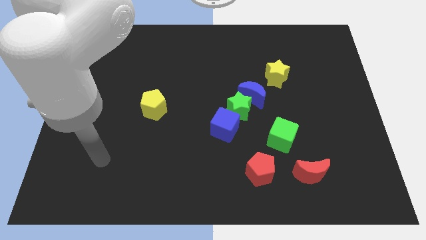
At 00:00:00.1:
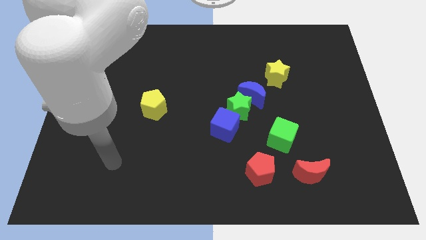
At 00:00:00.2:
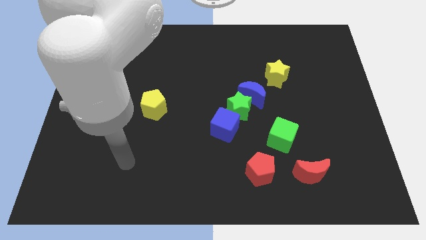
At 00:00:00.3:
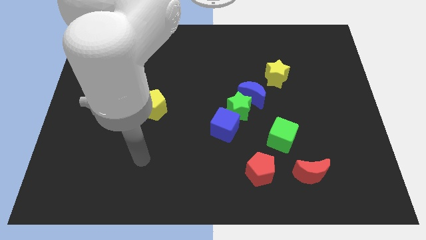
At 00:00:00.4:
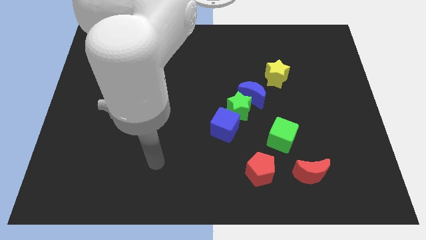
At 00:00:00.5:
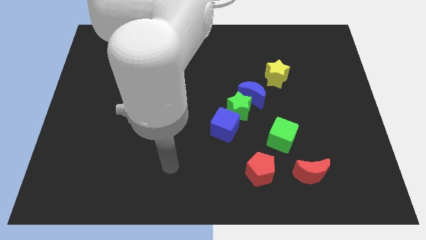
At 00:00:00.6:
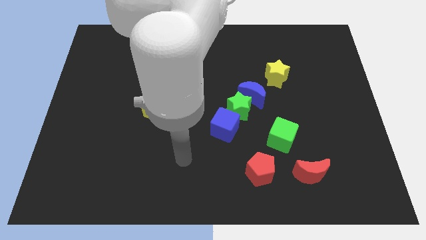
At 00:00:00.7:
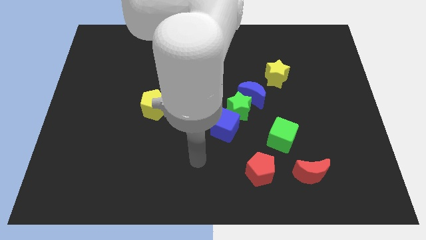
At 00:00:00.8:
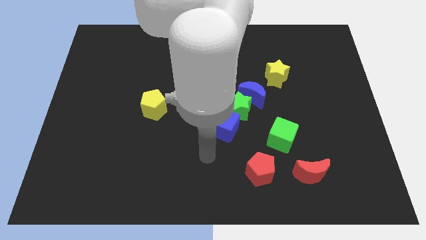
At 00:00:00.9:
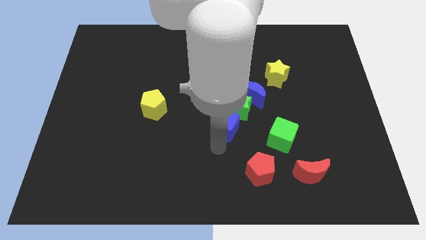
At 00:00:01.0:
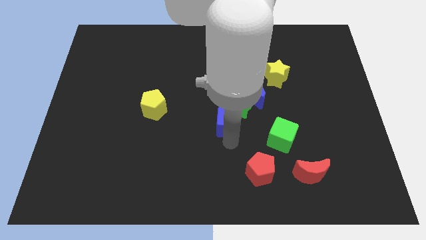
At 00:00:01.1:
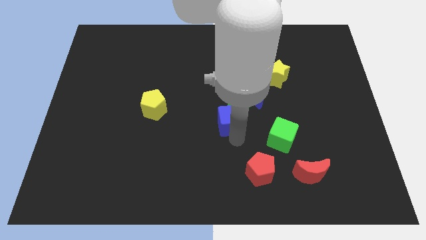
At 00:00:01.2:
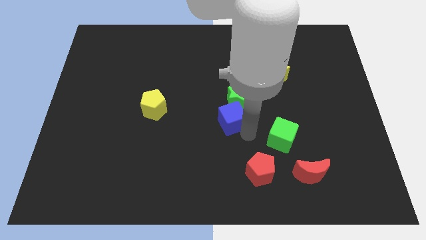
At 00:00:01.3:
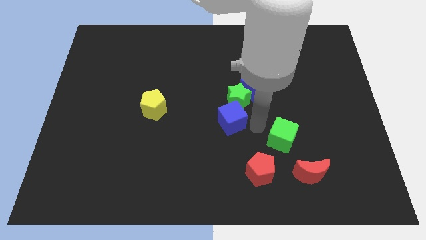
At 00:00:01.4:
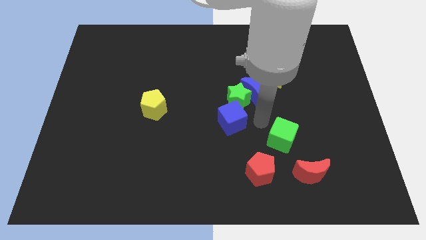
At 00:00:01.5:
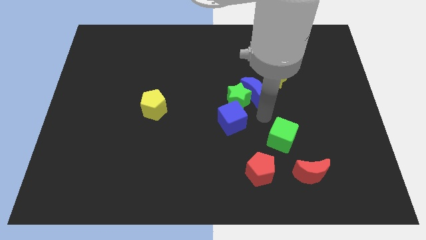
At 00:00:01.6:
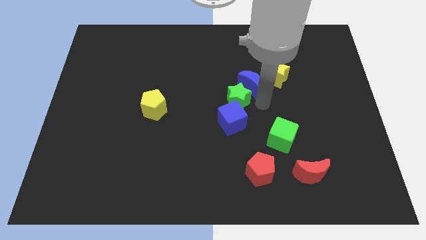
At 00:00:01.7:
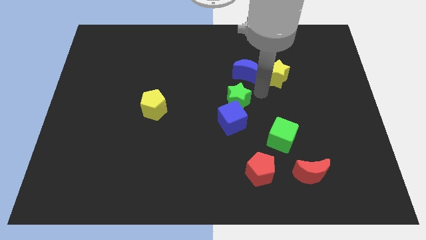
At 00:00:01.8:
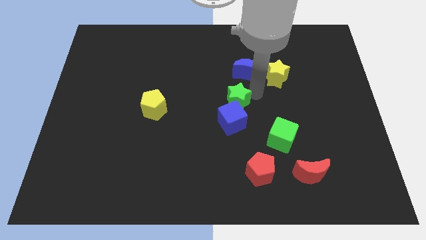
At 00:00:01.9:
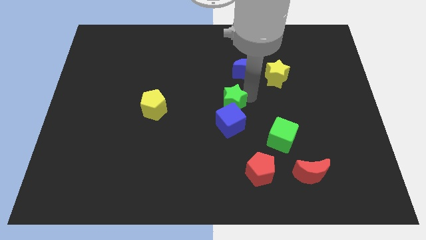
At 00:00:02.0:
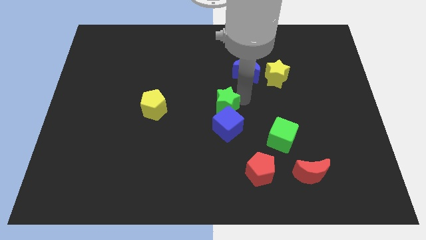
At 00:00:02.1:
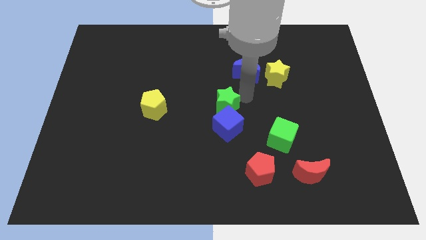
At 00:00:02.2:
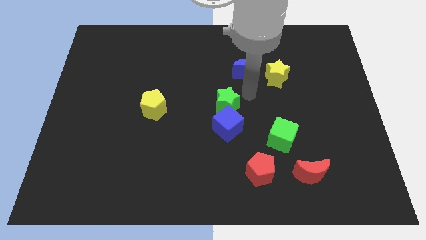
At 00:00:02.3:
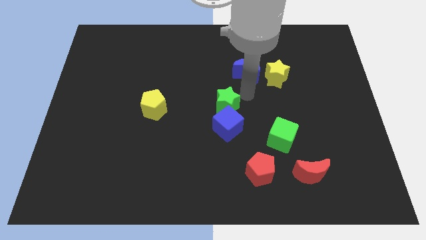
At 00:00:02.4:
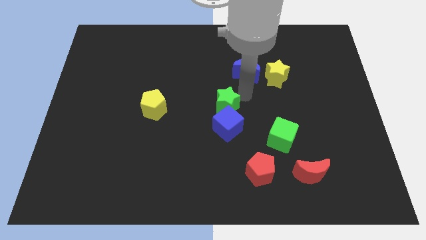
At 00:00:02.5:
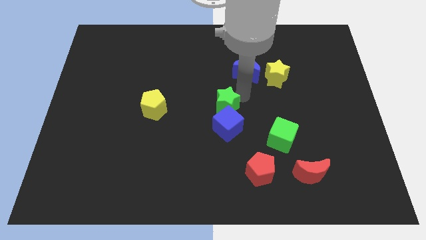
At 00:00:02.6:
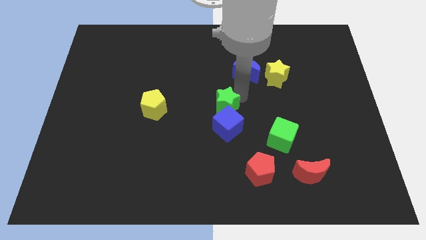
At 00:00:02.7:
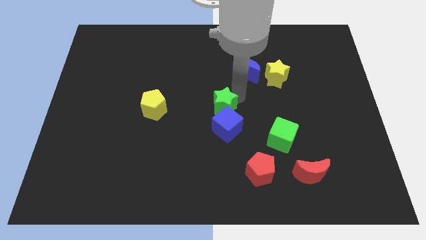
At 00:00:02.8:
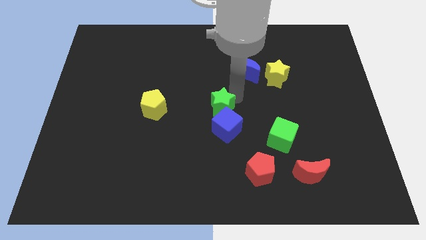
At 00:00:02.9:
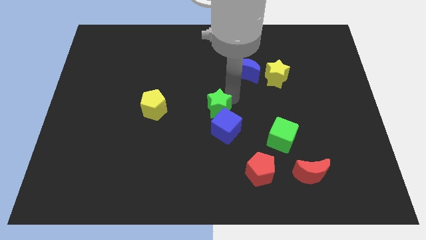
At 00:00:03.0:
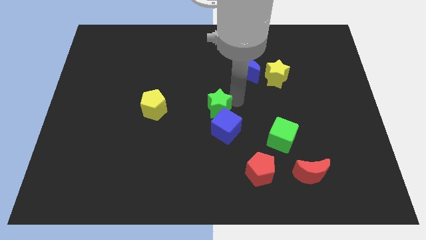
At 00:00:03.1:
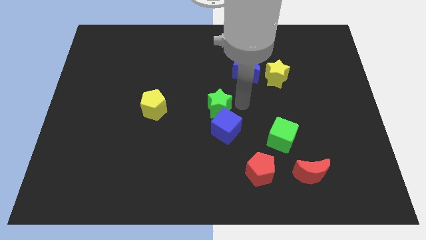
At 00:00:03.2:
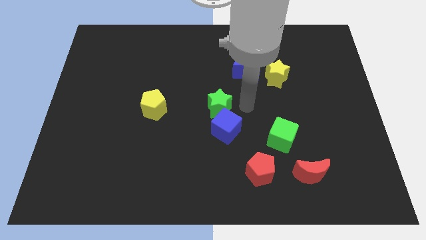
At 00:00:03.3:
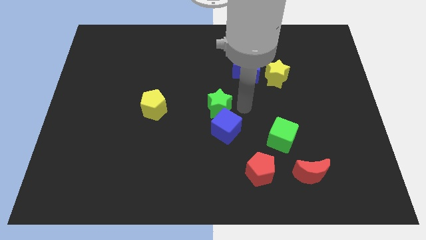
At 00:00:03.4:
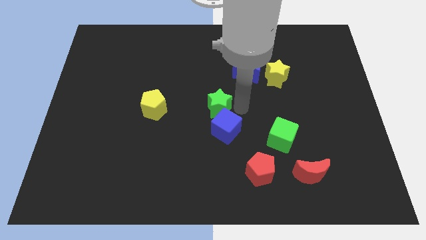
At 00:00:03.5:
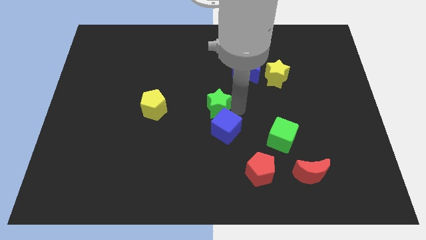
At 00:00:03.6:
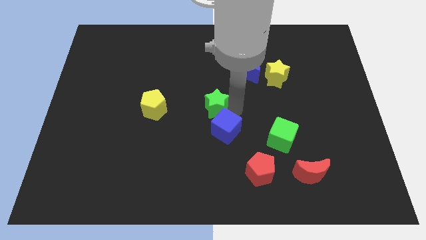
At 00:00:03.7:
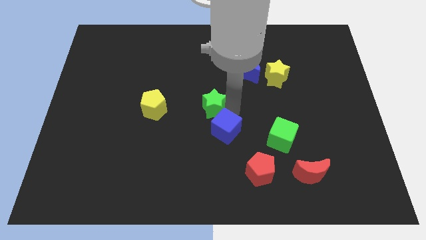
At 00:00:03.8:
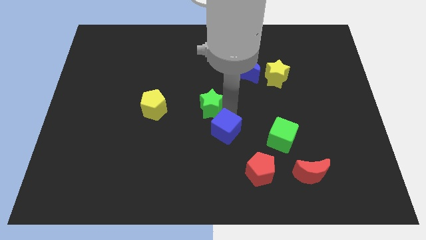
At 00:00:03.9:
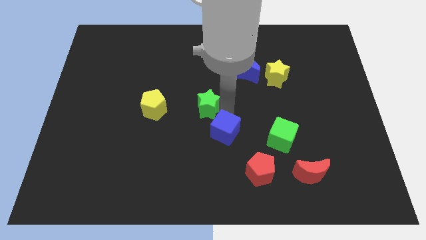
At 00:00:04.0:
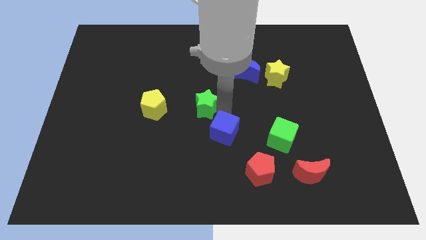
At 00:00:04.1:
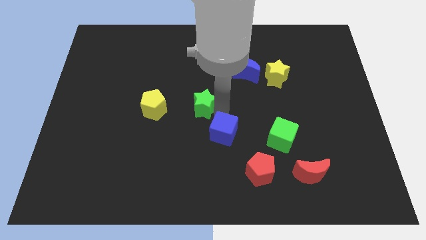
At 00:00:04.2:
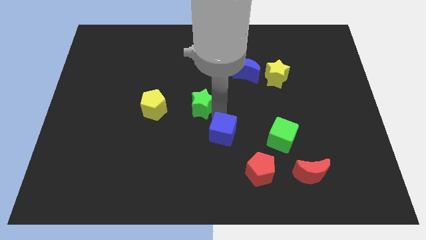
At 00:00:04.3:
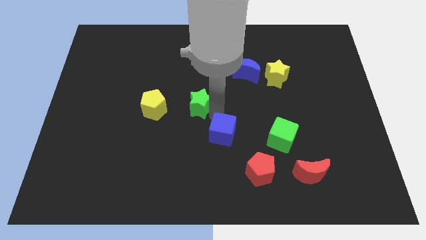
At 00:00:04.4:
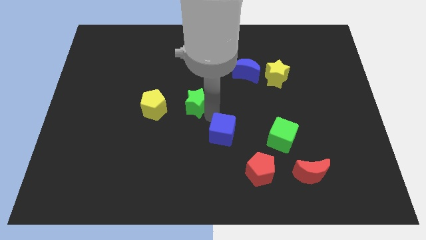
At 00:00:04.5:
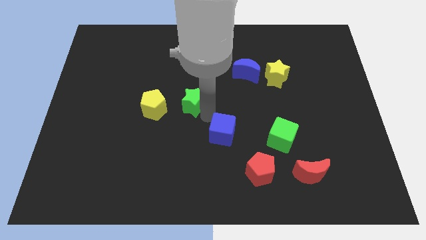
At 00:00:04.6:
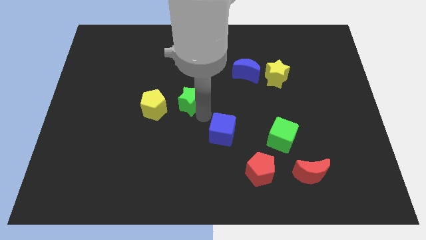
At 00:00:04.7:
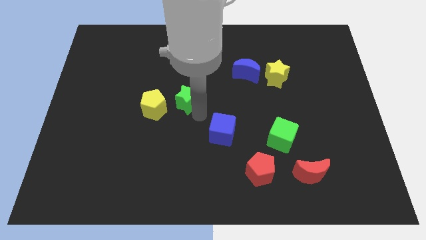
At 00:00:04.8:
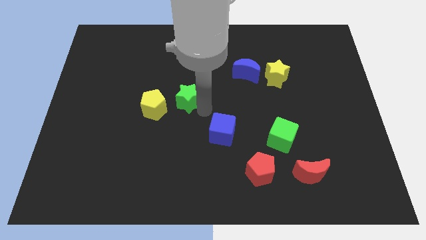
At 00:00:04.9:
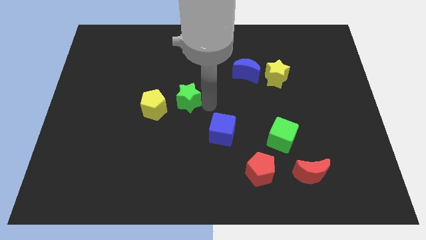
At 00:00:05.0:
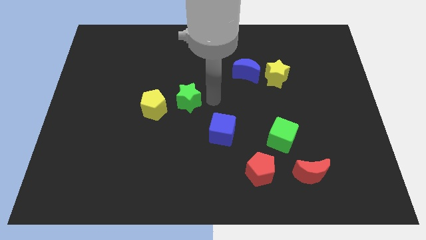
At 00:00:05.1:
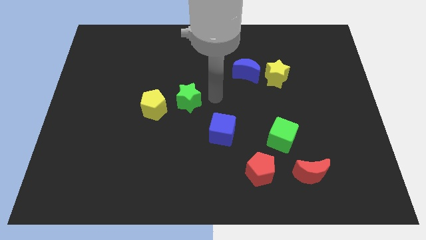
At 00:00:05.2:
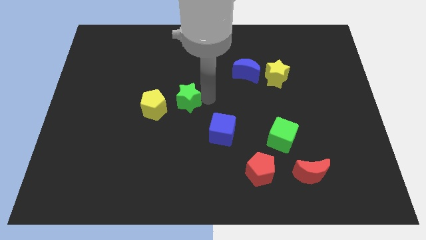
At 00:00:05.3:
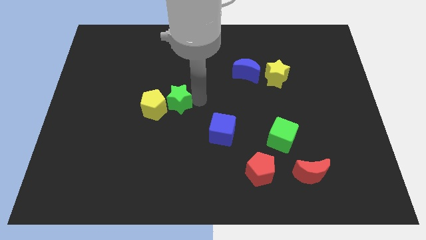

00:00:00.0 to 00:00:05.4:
move the green star next to the yellow pentagon

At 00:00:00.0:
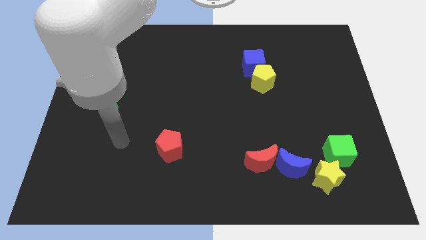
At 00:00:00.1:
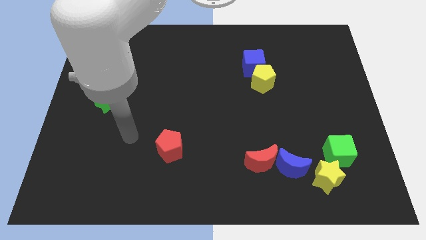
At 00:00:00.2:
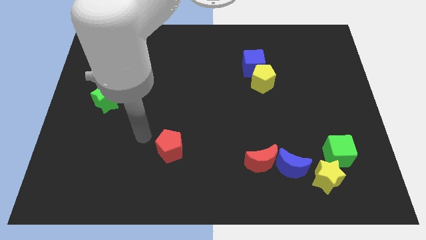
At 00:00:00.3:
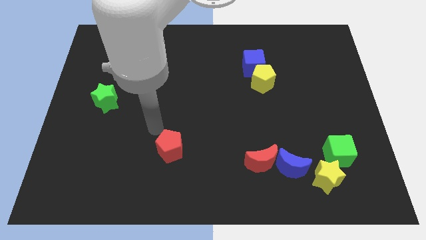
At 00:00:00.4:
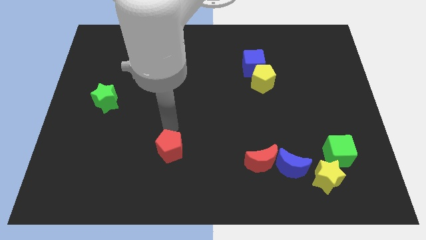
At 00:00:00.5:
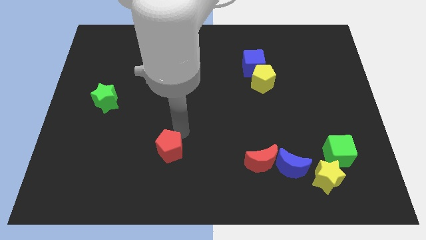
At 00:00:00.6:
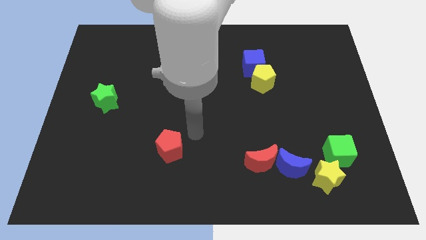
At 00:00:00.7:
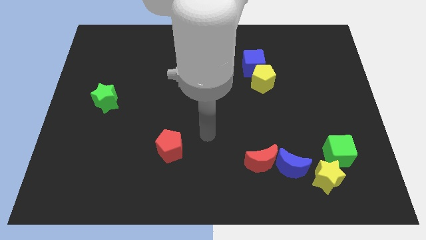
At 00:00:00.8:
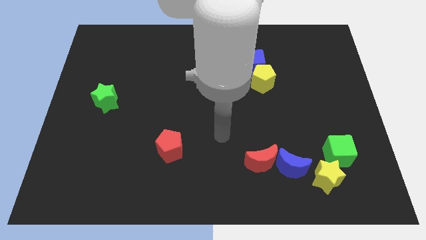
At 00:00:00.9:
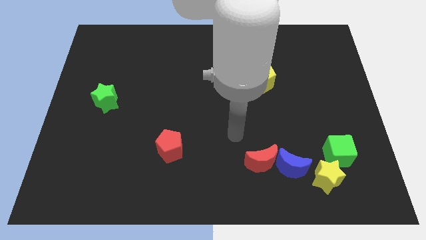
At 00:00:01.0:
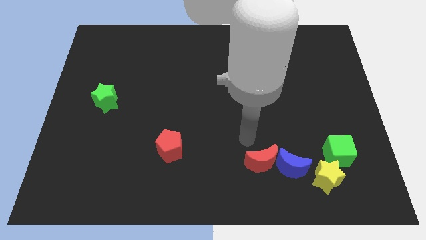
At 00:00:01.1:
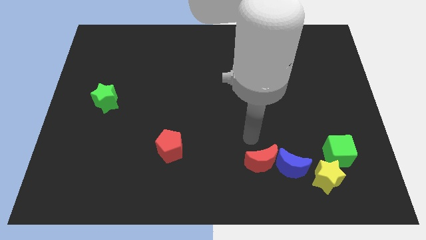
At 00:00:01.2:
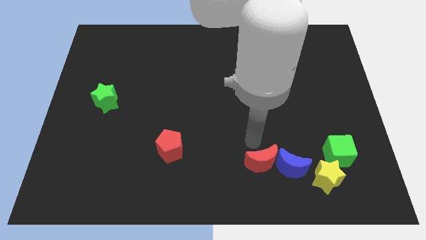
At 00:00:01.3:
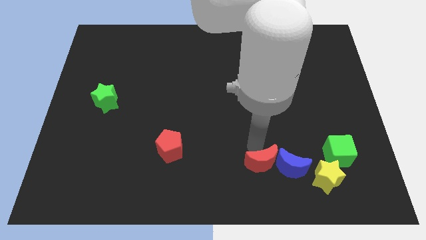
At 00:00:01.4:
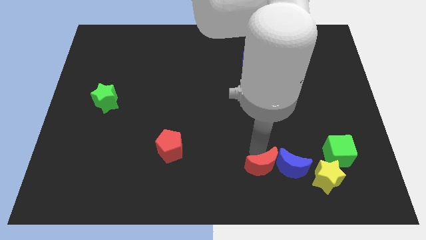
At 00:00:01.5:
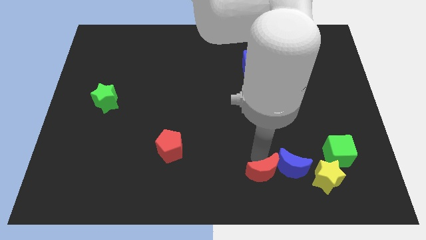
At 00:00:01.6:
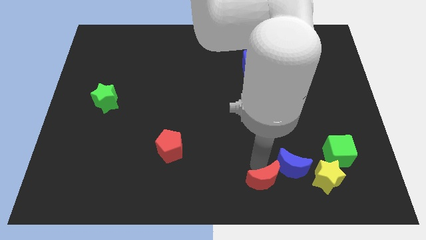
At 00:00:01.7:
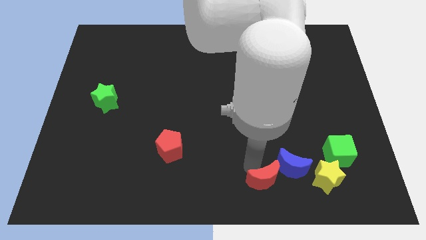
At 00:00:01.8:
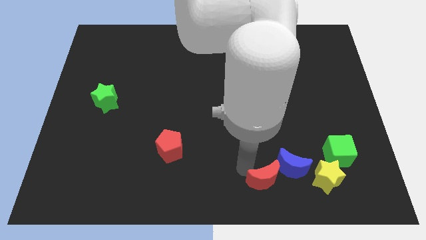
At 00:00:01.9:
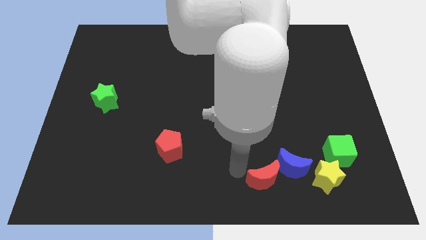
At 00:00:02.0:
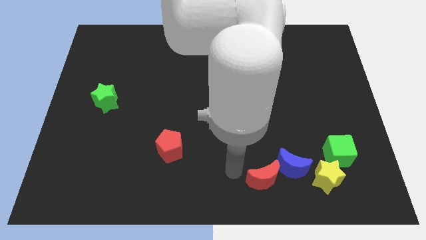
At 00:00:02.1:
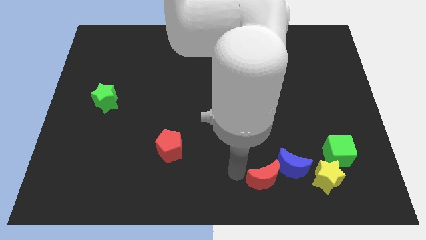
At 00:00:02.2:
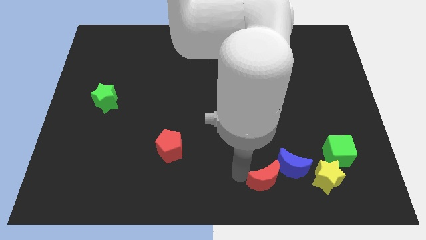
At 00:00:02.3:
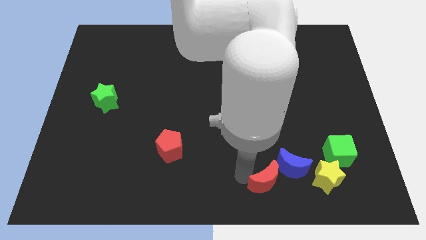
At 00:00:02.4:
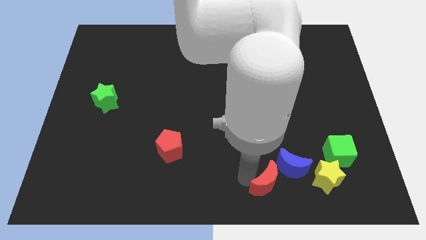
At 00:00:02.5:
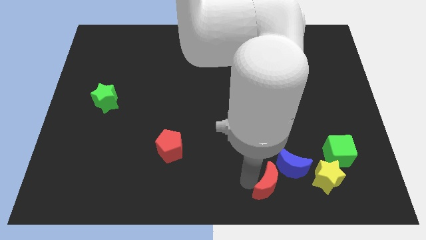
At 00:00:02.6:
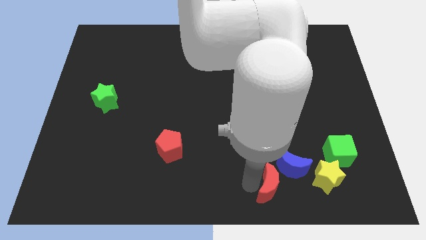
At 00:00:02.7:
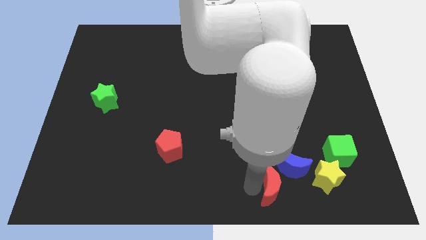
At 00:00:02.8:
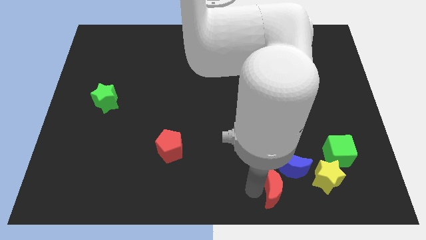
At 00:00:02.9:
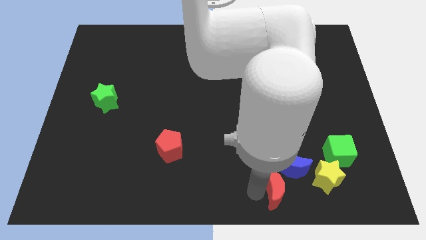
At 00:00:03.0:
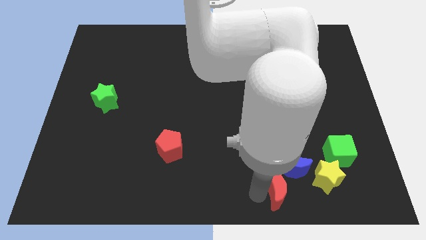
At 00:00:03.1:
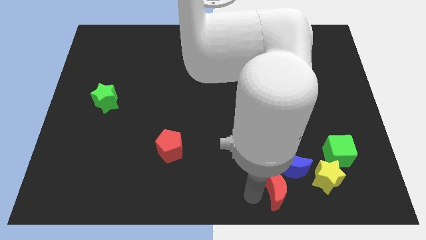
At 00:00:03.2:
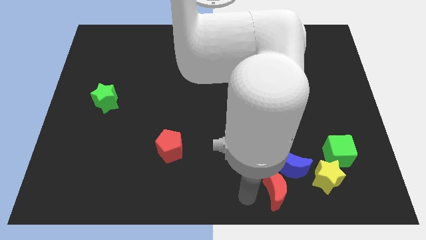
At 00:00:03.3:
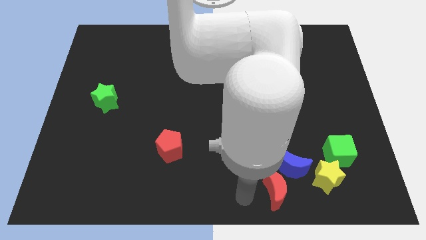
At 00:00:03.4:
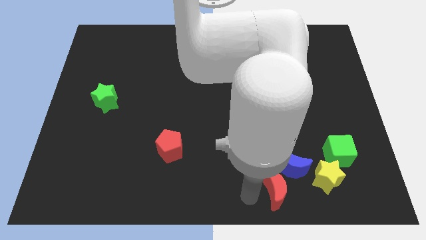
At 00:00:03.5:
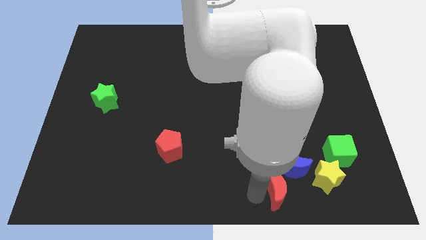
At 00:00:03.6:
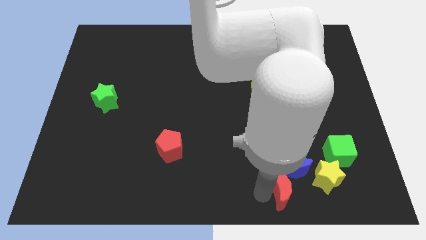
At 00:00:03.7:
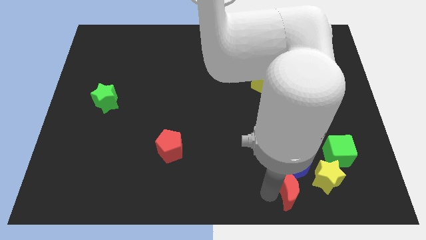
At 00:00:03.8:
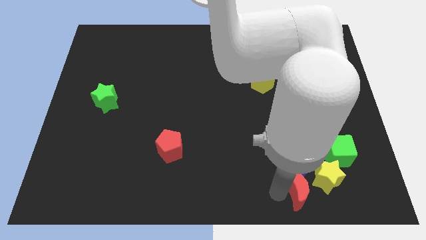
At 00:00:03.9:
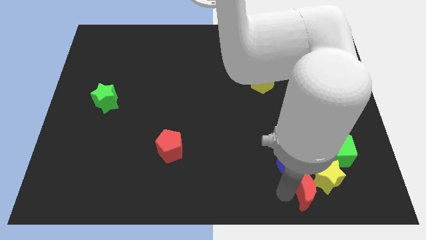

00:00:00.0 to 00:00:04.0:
push the red moon next to the yellow star
